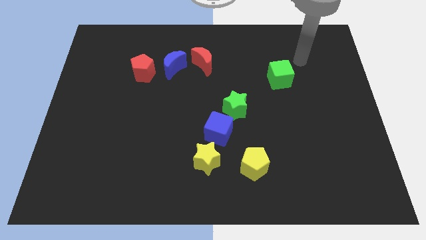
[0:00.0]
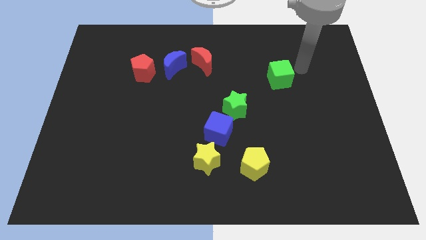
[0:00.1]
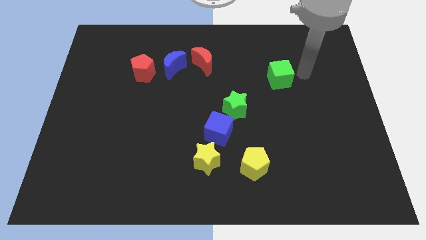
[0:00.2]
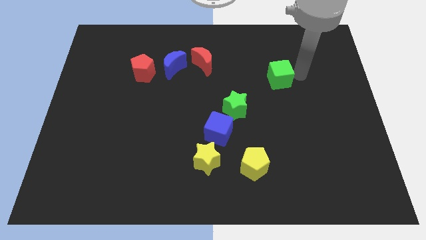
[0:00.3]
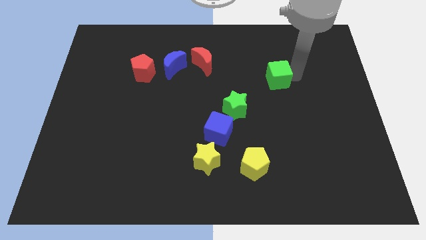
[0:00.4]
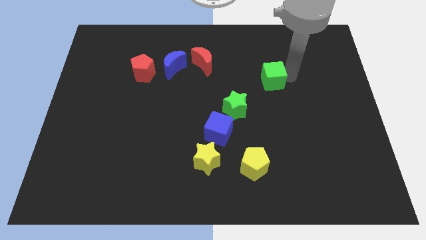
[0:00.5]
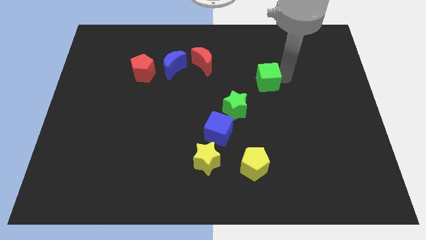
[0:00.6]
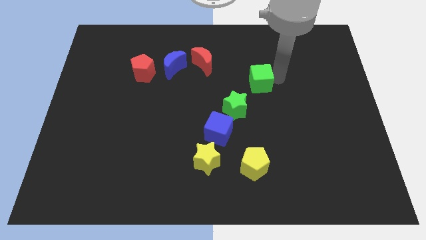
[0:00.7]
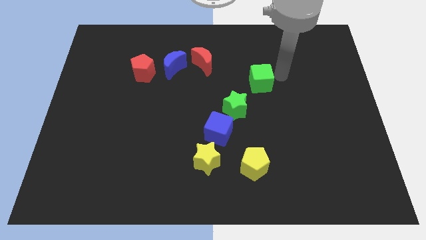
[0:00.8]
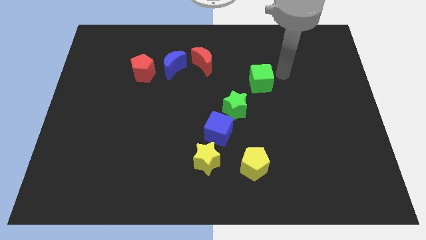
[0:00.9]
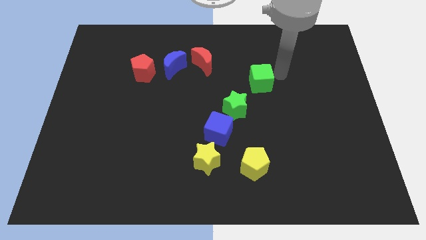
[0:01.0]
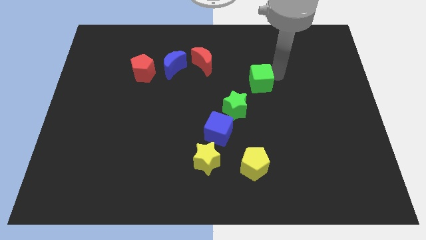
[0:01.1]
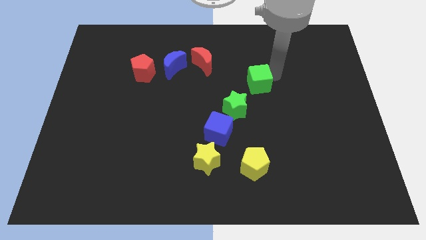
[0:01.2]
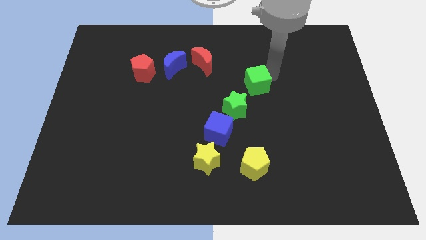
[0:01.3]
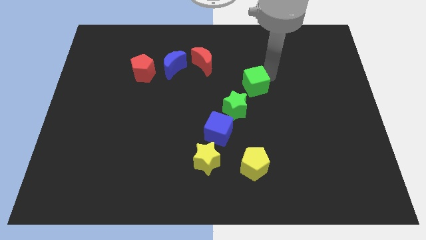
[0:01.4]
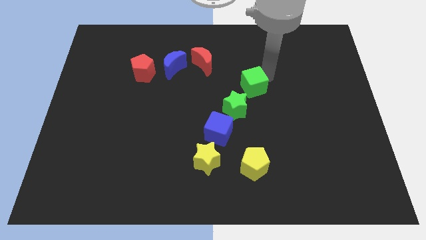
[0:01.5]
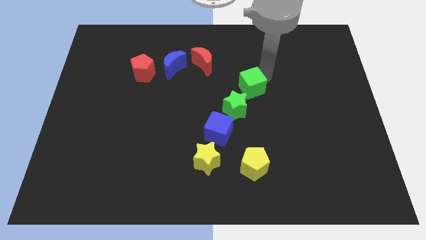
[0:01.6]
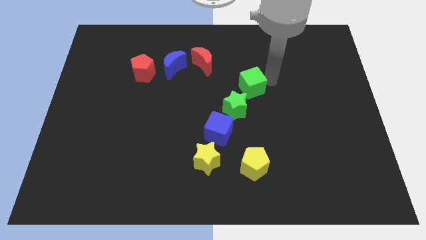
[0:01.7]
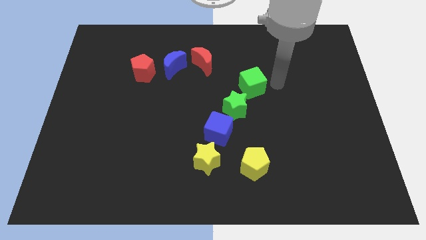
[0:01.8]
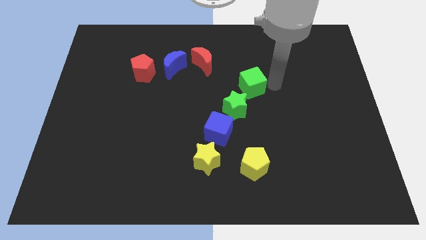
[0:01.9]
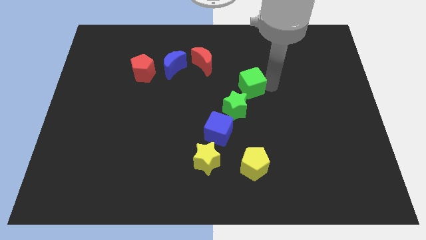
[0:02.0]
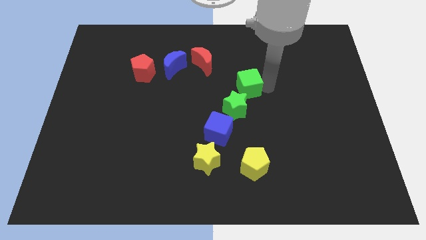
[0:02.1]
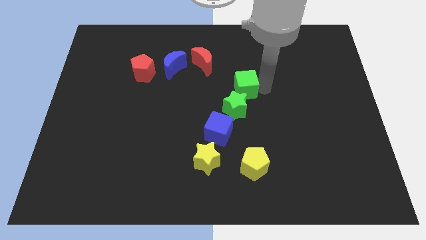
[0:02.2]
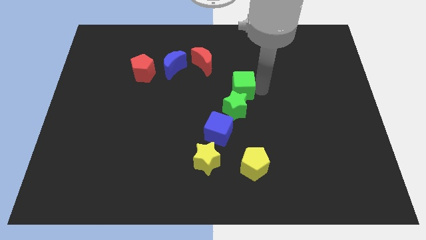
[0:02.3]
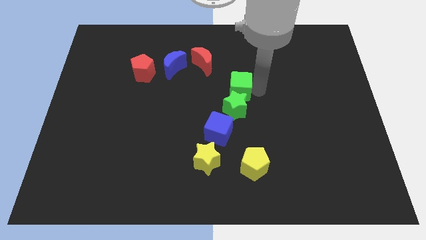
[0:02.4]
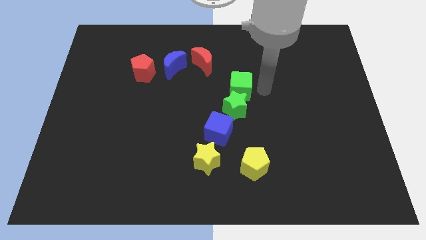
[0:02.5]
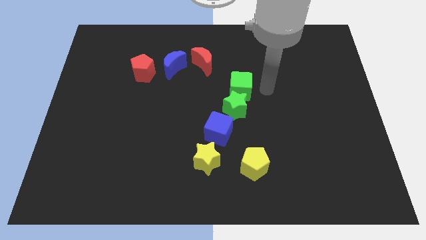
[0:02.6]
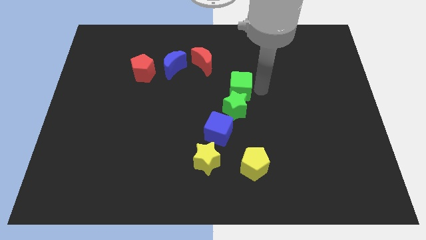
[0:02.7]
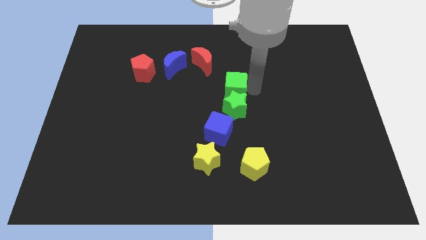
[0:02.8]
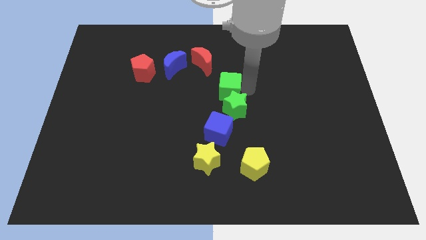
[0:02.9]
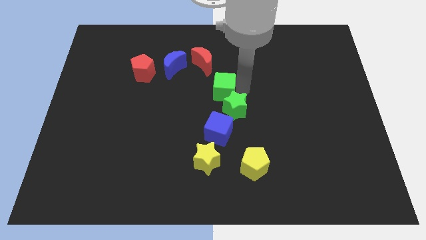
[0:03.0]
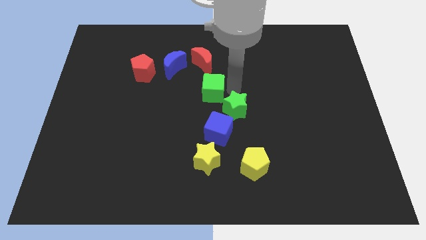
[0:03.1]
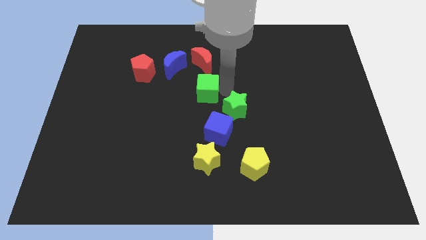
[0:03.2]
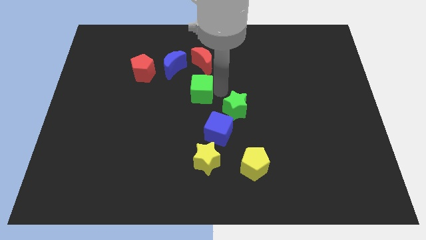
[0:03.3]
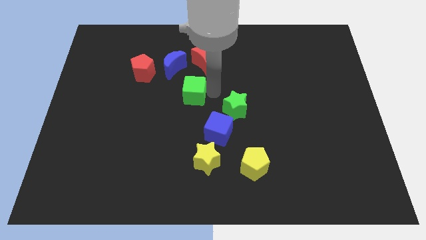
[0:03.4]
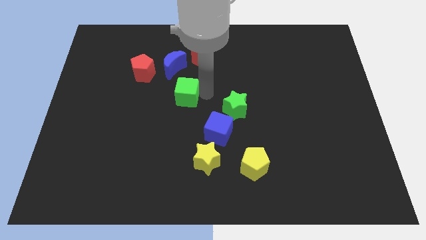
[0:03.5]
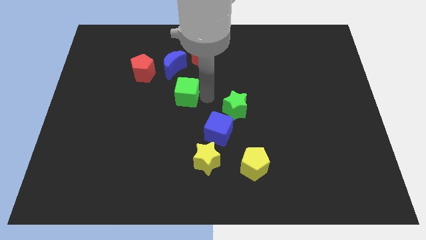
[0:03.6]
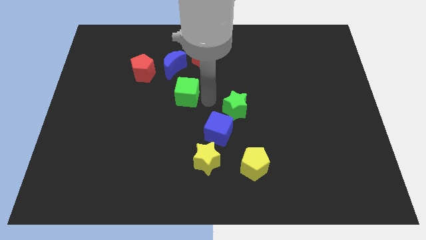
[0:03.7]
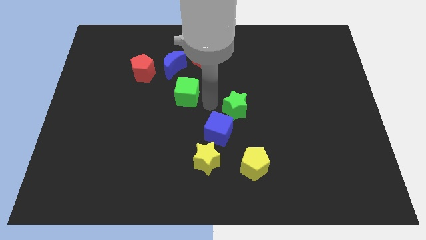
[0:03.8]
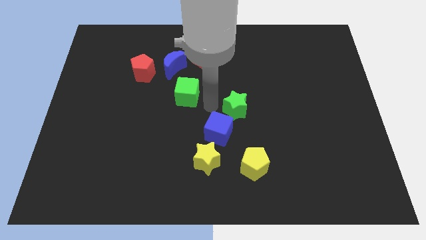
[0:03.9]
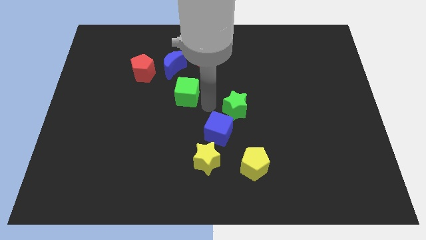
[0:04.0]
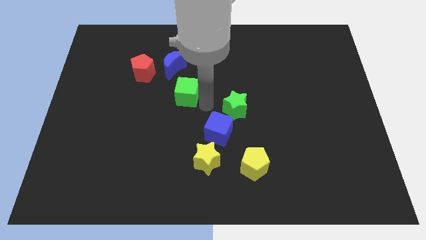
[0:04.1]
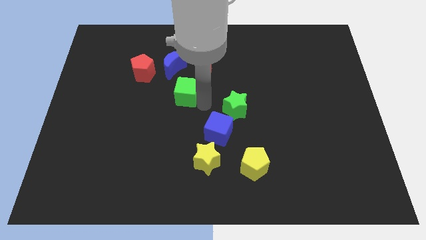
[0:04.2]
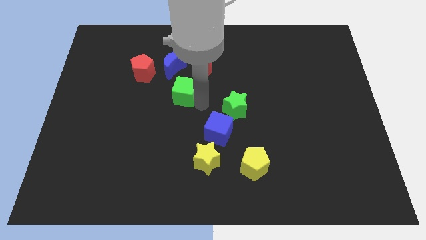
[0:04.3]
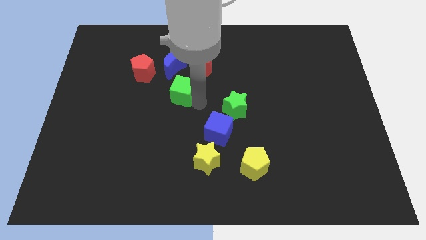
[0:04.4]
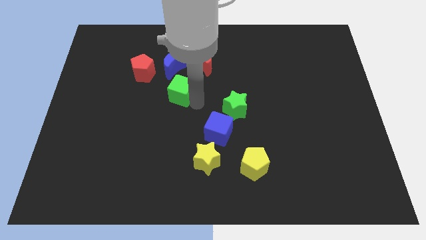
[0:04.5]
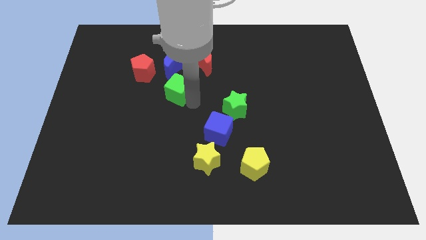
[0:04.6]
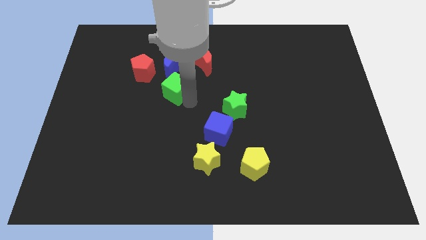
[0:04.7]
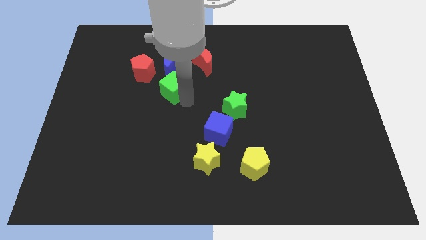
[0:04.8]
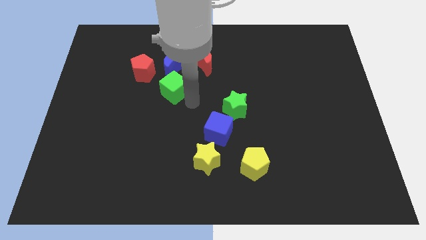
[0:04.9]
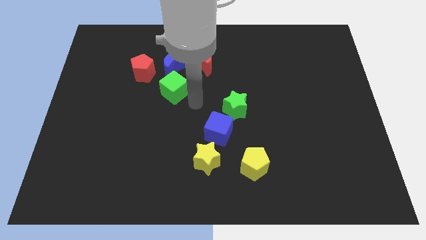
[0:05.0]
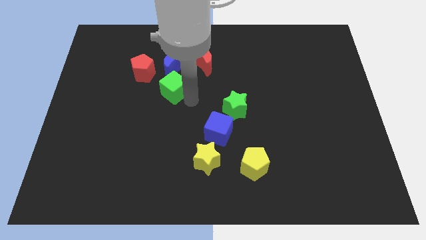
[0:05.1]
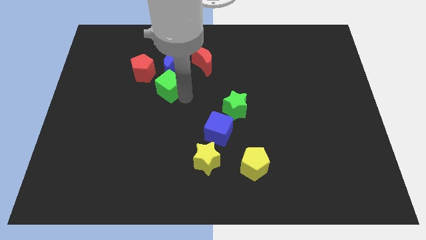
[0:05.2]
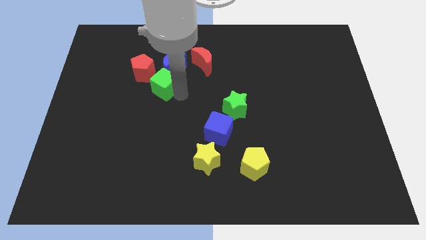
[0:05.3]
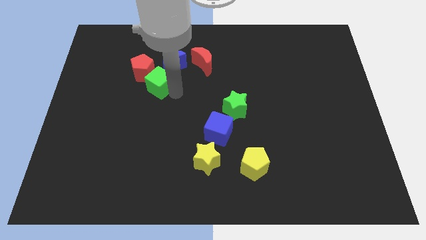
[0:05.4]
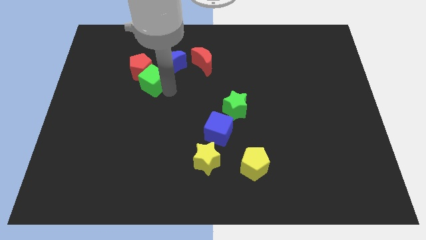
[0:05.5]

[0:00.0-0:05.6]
move the green cube next to the red pentagon

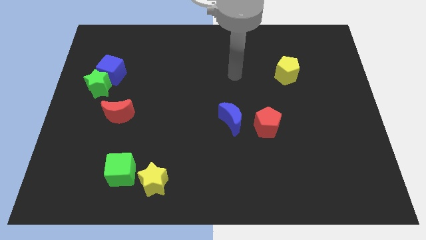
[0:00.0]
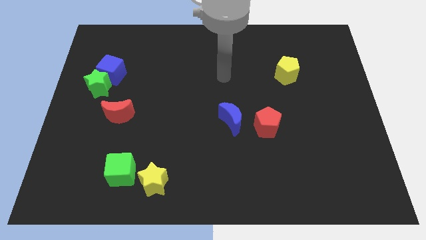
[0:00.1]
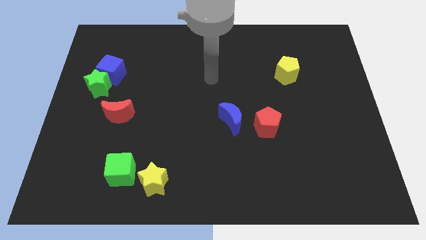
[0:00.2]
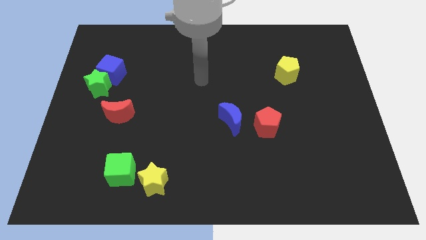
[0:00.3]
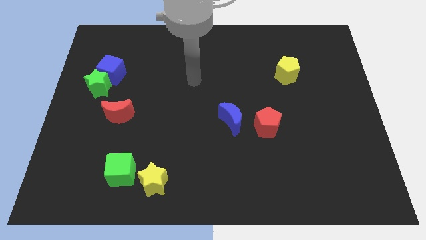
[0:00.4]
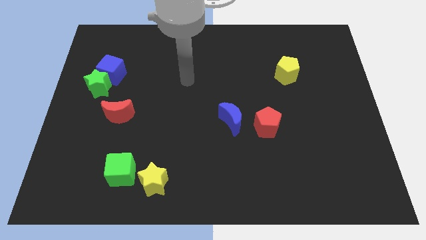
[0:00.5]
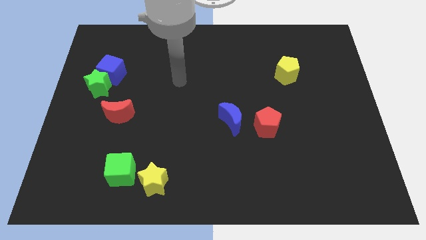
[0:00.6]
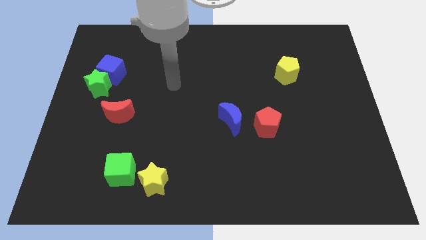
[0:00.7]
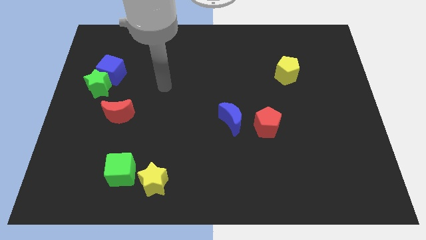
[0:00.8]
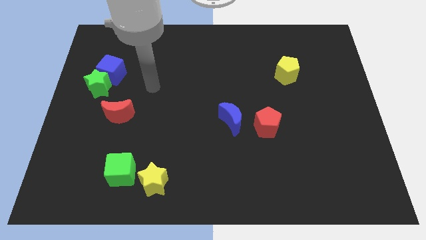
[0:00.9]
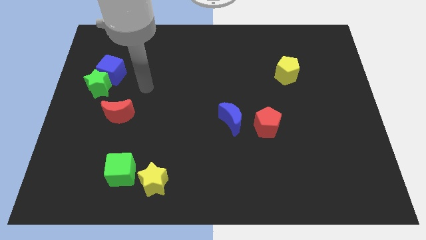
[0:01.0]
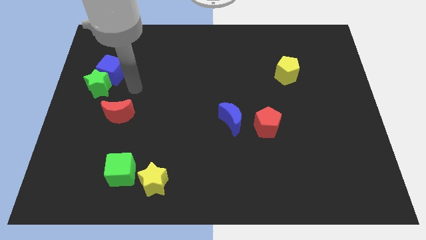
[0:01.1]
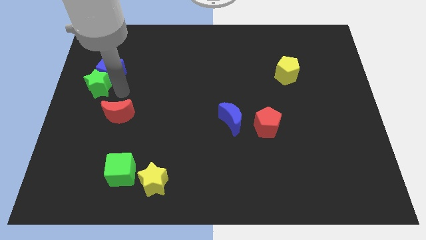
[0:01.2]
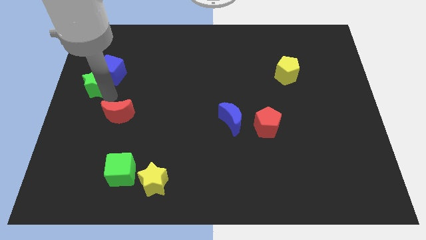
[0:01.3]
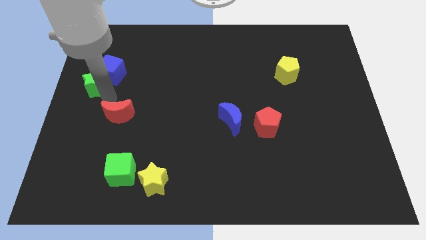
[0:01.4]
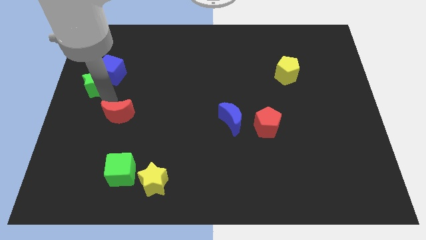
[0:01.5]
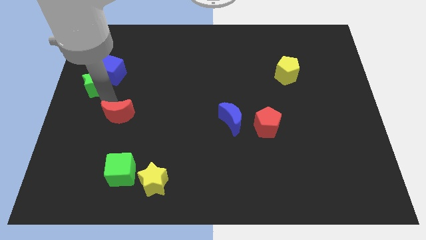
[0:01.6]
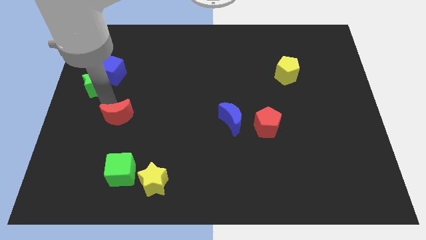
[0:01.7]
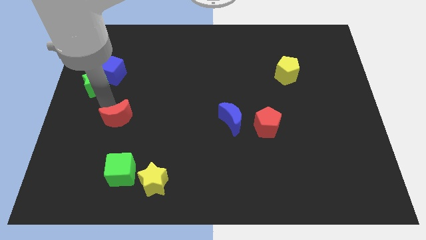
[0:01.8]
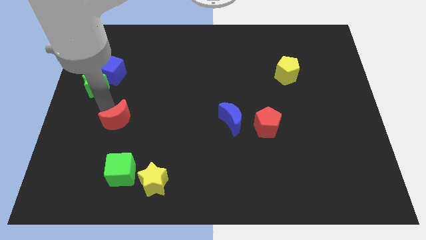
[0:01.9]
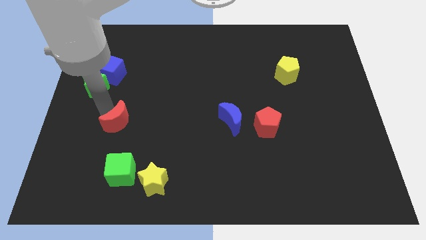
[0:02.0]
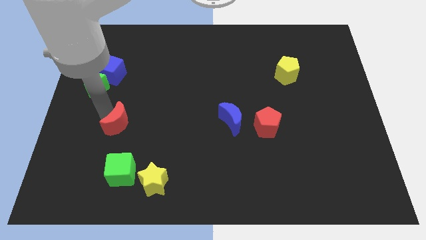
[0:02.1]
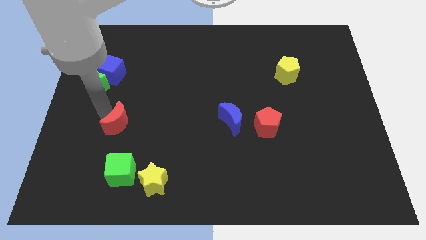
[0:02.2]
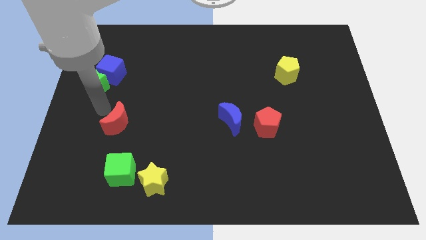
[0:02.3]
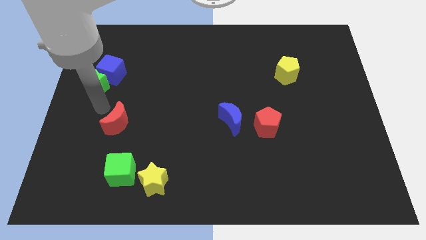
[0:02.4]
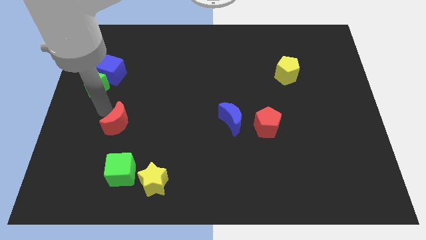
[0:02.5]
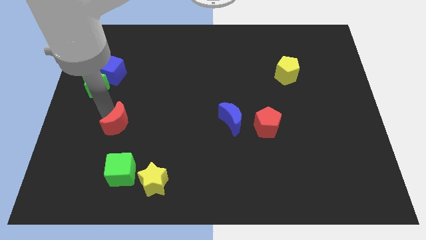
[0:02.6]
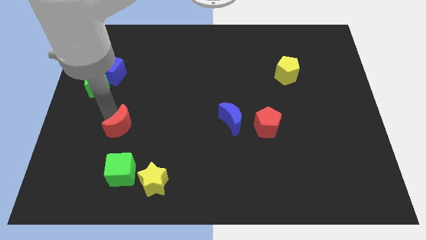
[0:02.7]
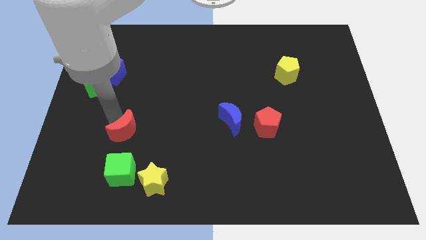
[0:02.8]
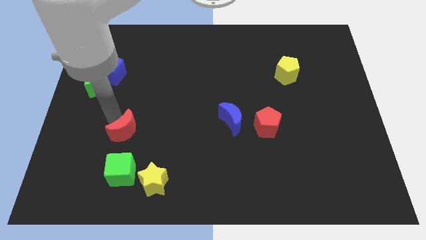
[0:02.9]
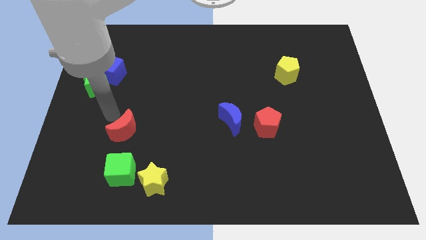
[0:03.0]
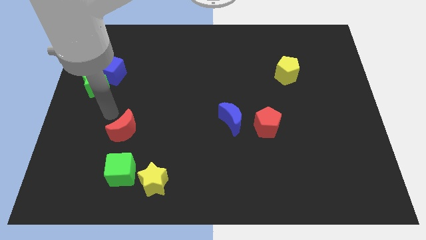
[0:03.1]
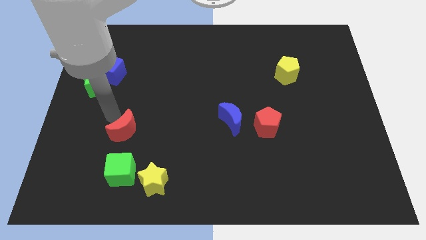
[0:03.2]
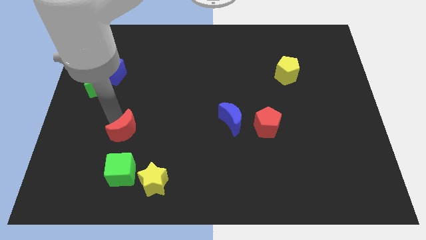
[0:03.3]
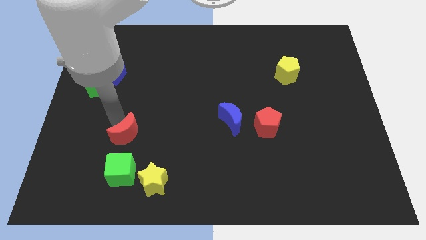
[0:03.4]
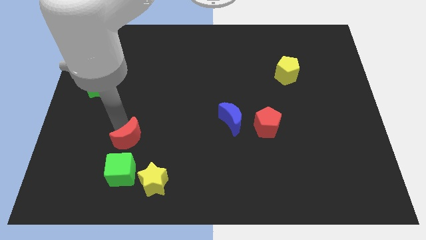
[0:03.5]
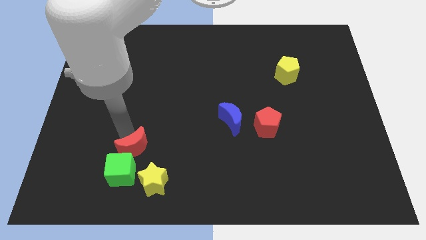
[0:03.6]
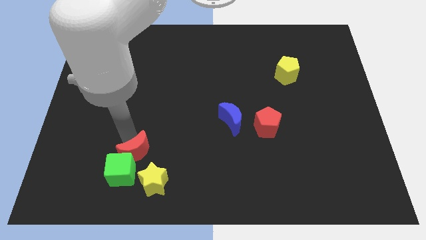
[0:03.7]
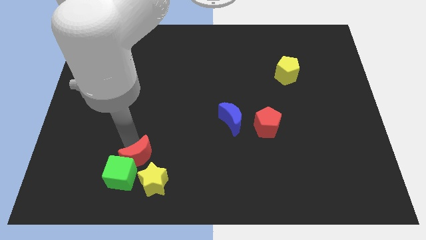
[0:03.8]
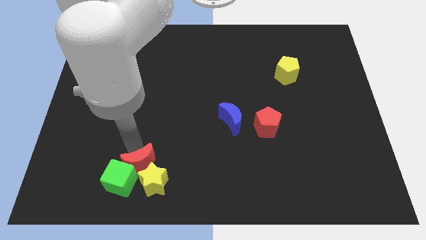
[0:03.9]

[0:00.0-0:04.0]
slide the red moon towards the yellow star
